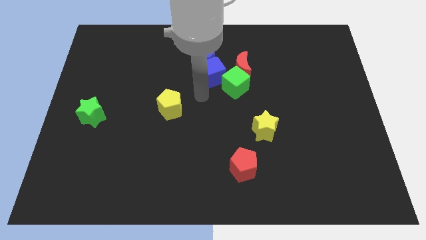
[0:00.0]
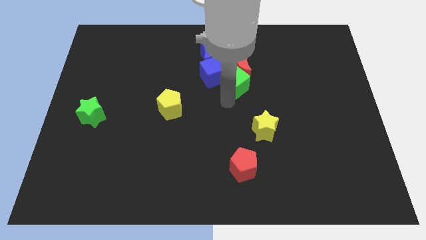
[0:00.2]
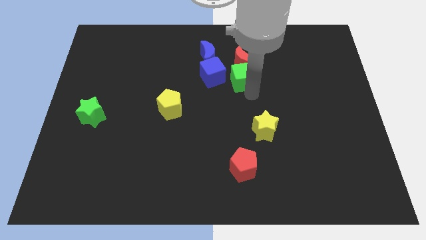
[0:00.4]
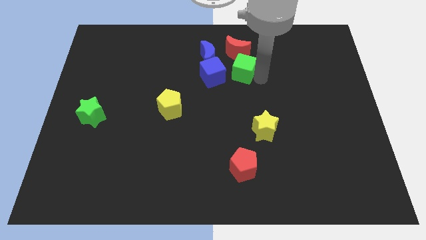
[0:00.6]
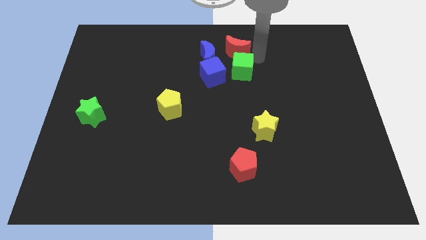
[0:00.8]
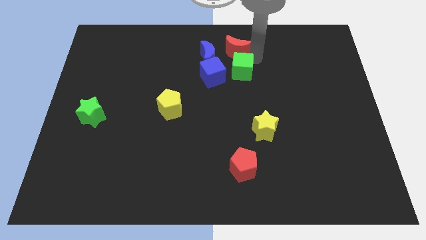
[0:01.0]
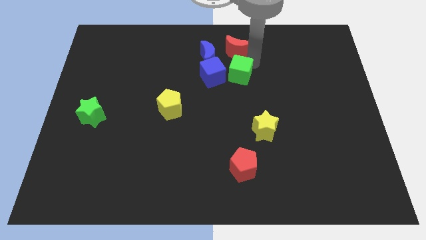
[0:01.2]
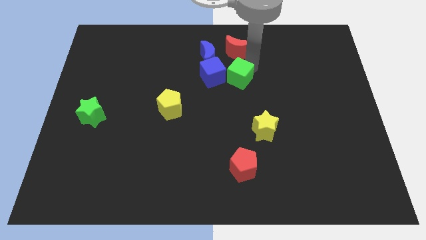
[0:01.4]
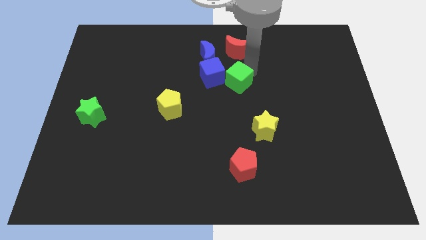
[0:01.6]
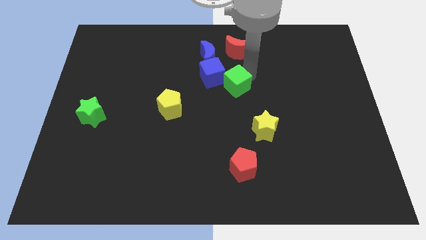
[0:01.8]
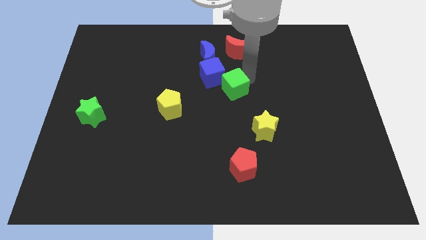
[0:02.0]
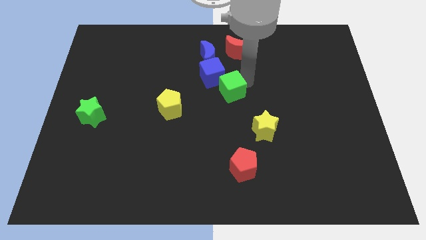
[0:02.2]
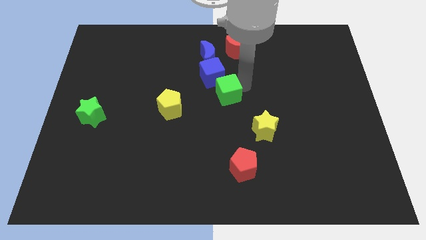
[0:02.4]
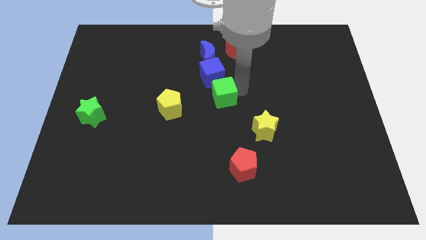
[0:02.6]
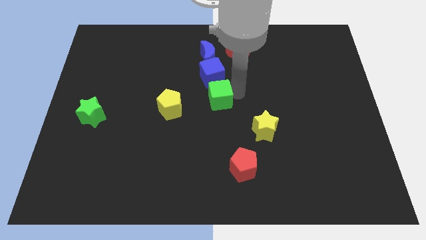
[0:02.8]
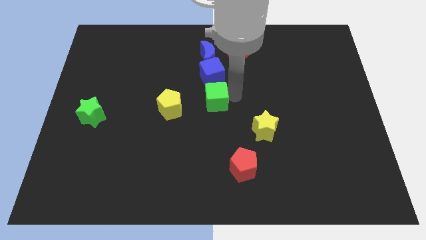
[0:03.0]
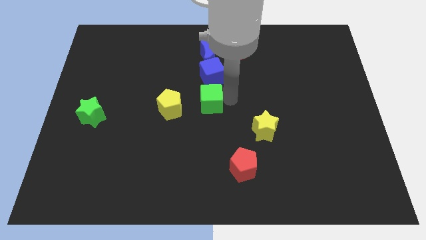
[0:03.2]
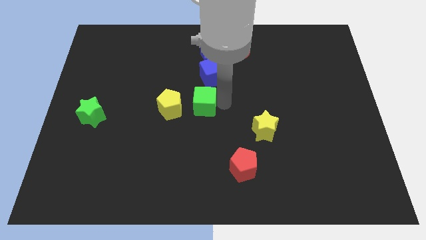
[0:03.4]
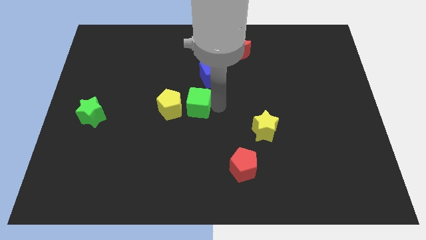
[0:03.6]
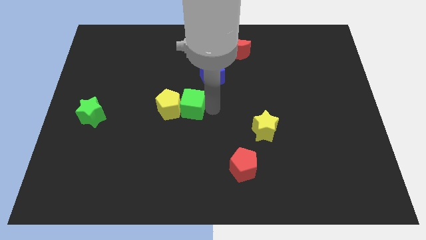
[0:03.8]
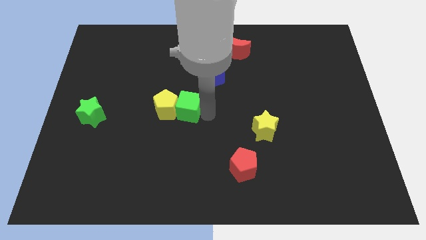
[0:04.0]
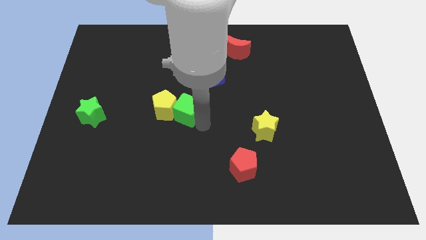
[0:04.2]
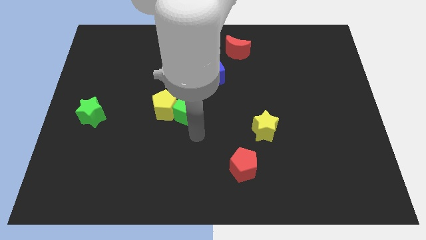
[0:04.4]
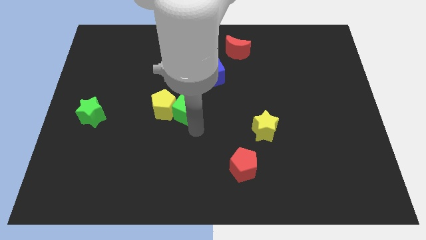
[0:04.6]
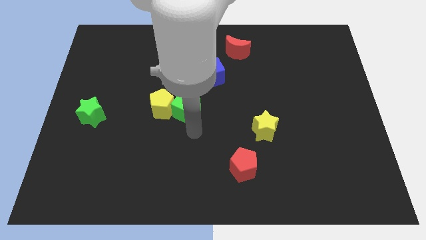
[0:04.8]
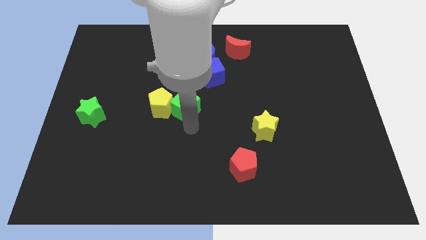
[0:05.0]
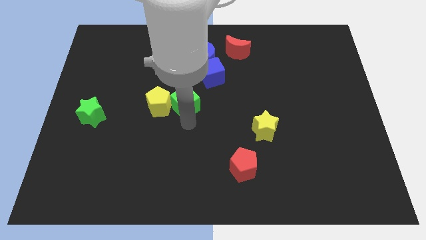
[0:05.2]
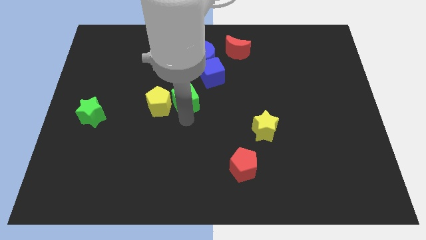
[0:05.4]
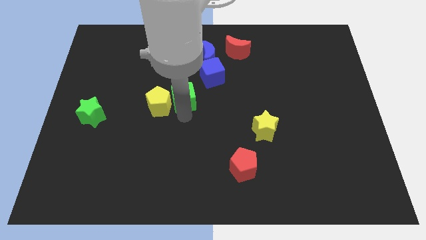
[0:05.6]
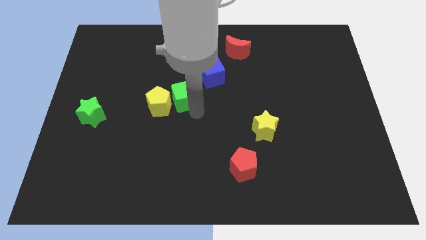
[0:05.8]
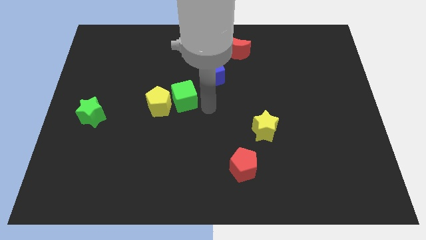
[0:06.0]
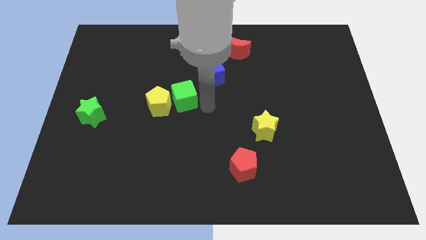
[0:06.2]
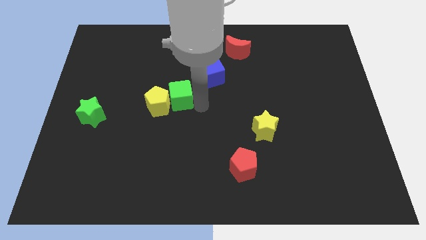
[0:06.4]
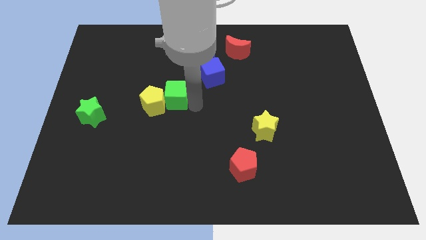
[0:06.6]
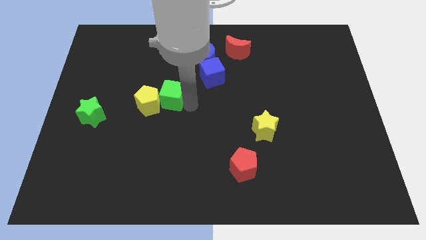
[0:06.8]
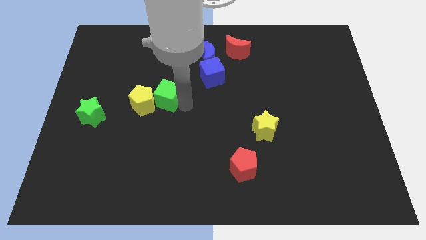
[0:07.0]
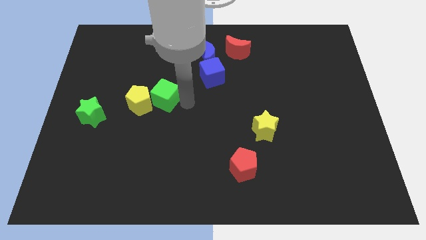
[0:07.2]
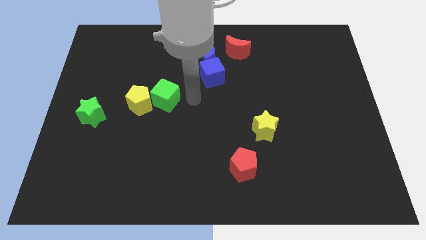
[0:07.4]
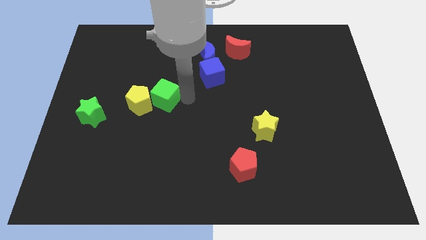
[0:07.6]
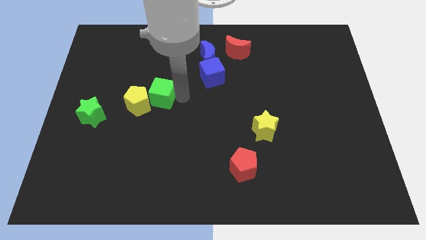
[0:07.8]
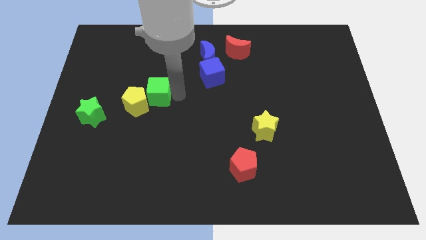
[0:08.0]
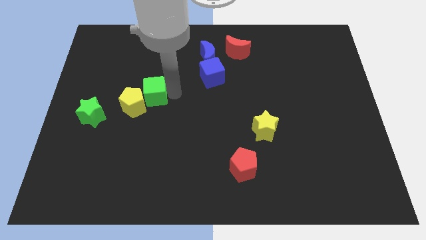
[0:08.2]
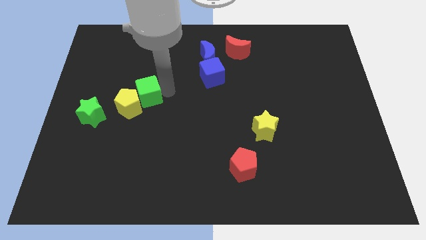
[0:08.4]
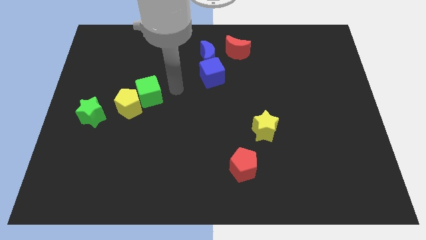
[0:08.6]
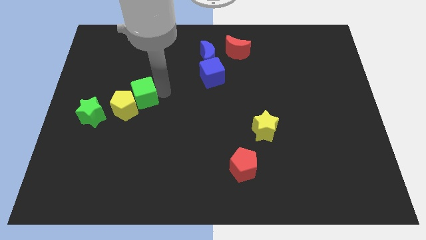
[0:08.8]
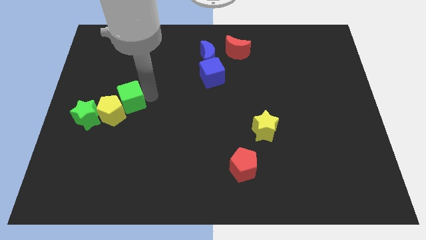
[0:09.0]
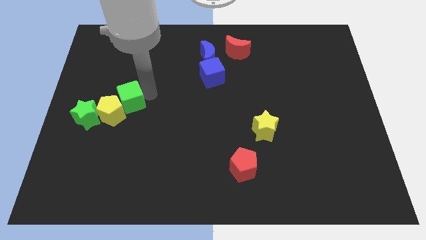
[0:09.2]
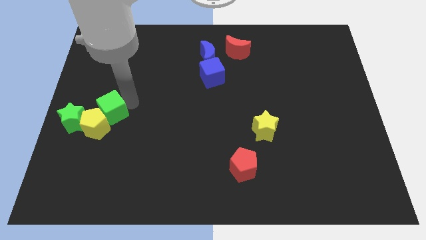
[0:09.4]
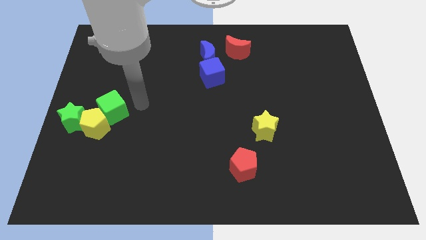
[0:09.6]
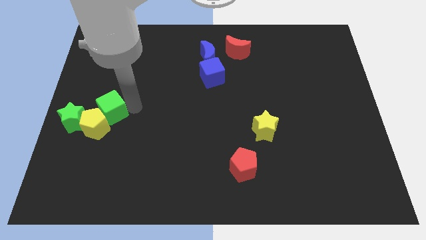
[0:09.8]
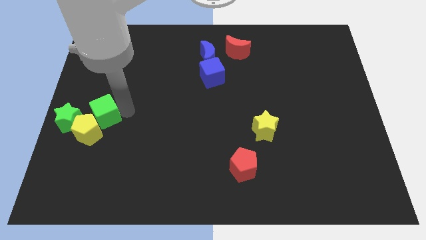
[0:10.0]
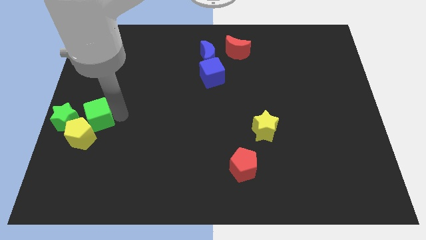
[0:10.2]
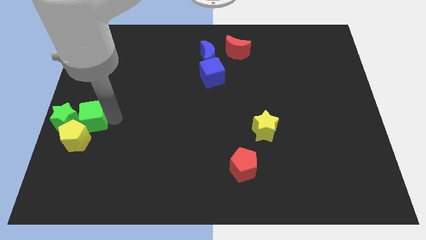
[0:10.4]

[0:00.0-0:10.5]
move the green cube towards the green star

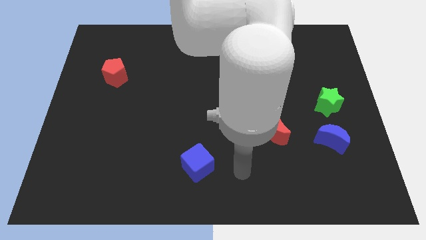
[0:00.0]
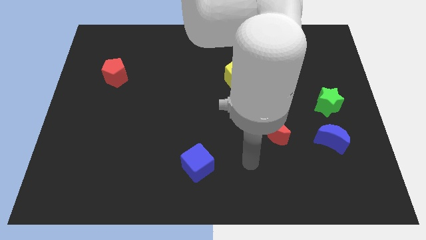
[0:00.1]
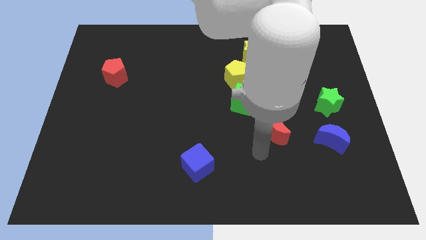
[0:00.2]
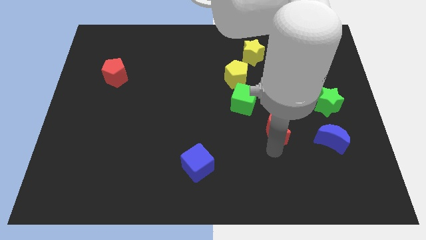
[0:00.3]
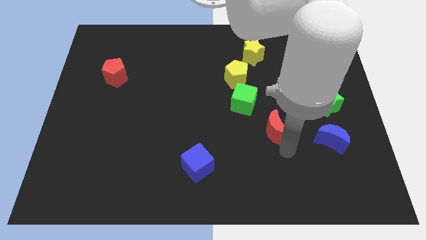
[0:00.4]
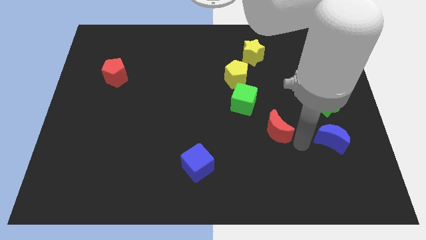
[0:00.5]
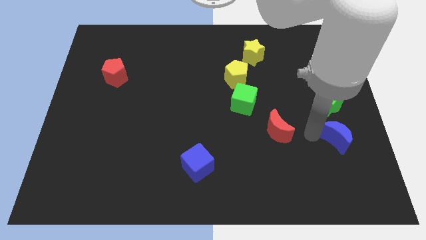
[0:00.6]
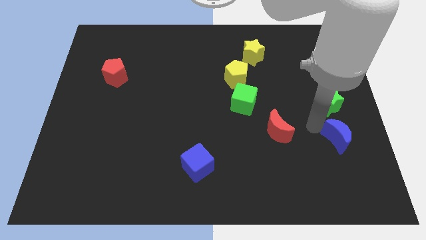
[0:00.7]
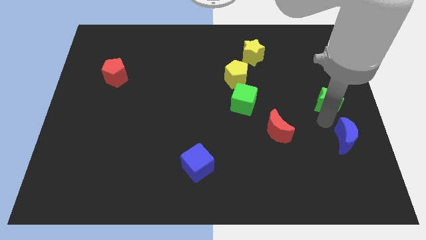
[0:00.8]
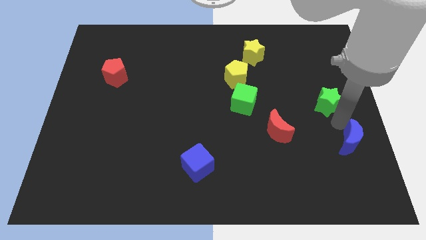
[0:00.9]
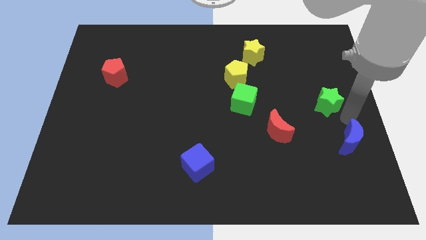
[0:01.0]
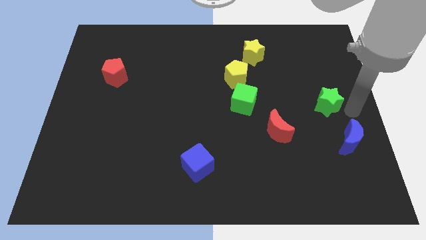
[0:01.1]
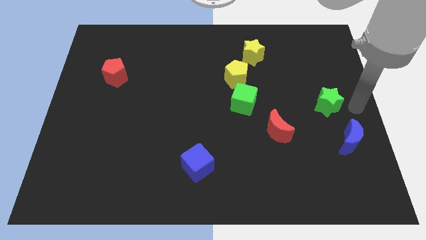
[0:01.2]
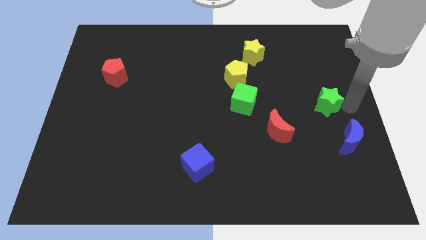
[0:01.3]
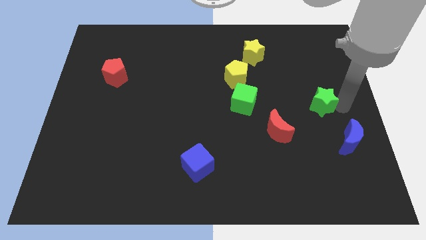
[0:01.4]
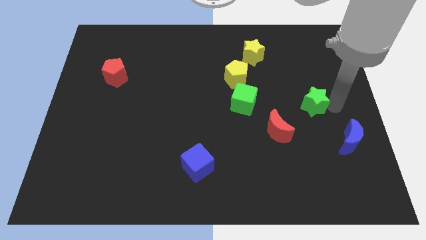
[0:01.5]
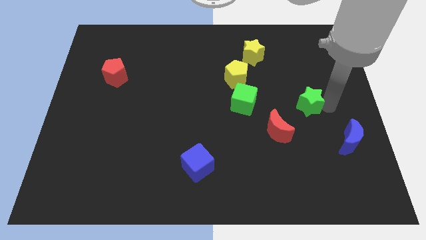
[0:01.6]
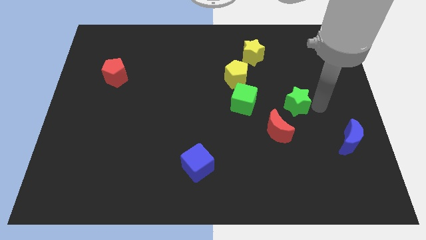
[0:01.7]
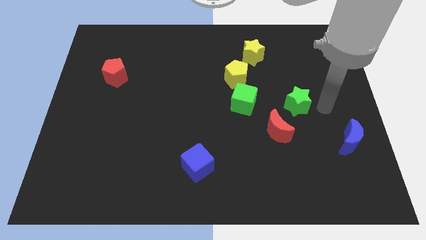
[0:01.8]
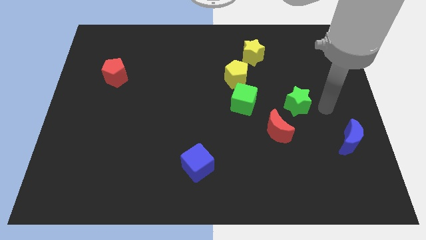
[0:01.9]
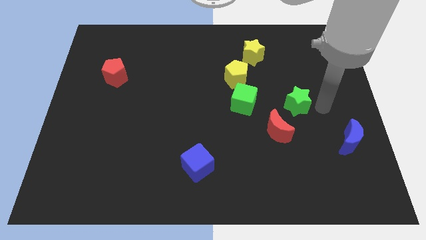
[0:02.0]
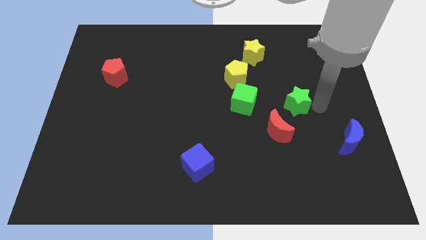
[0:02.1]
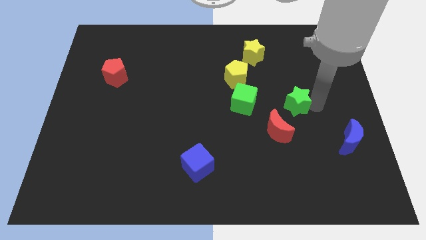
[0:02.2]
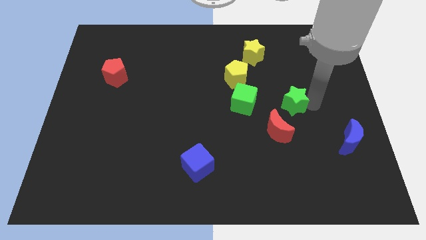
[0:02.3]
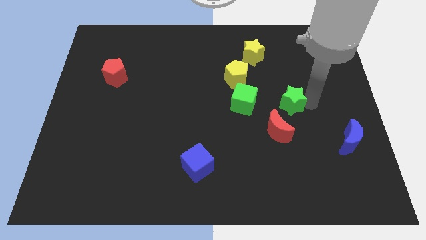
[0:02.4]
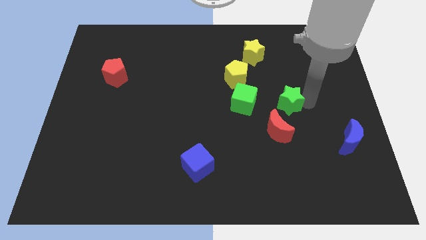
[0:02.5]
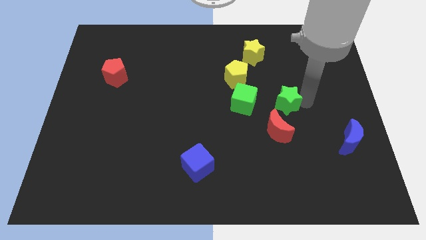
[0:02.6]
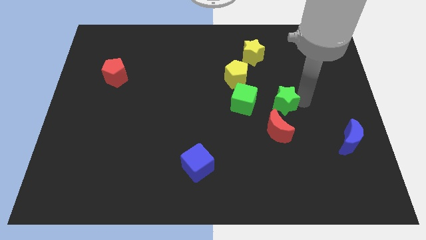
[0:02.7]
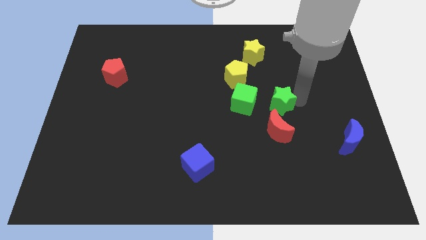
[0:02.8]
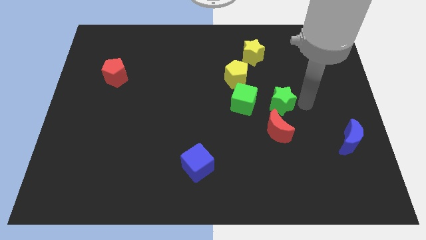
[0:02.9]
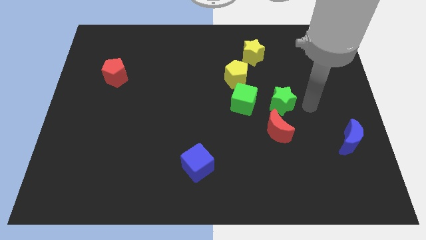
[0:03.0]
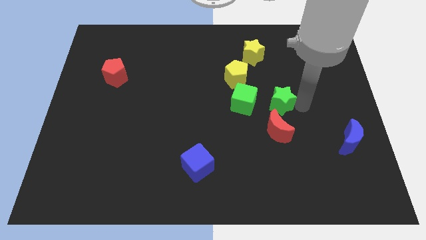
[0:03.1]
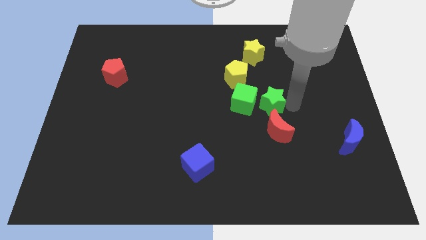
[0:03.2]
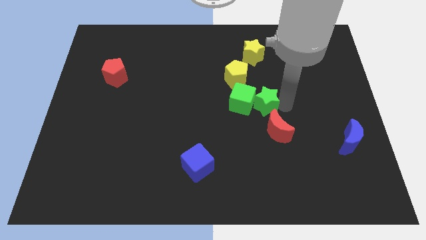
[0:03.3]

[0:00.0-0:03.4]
slide the green star close to the green cube
